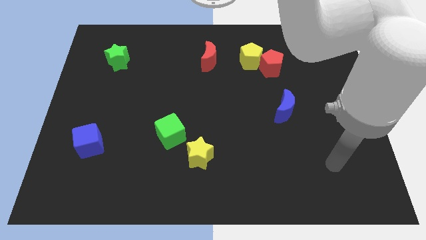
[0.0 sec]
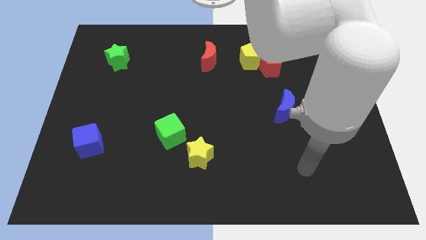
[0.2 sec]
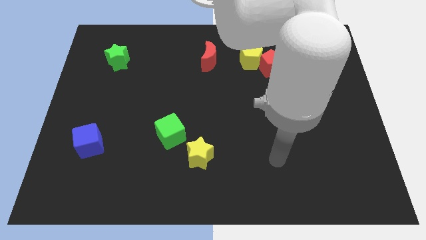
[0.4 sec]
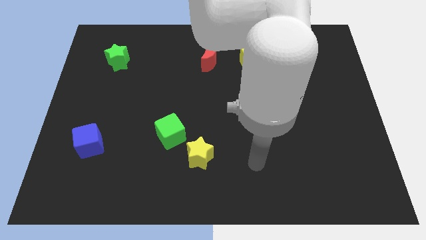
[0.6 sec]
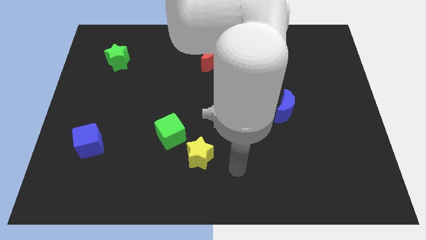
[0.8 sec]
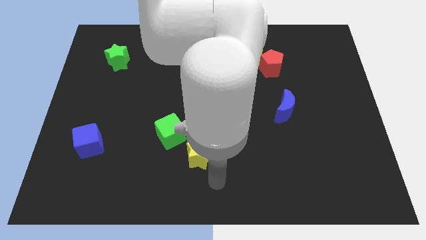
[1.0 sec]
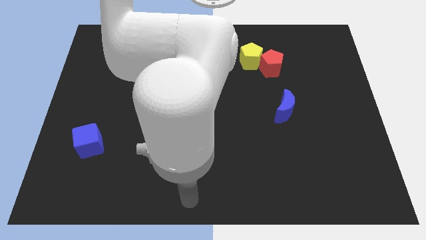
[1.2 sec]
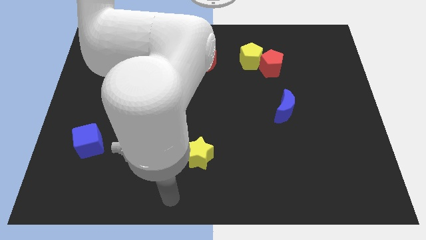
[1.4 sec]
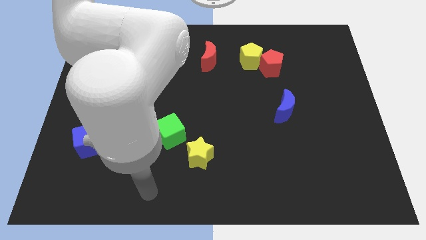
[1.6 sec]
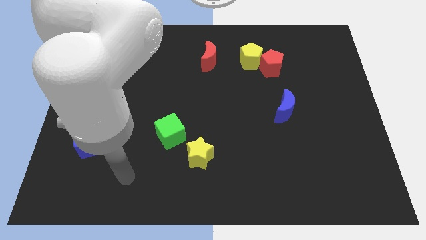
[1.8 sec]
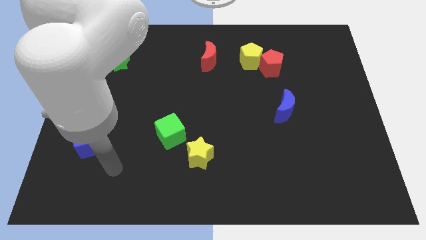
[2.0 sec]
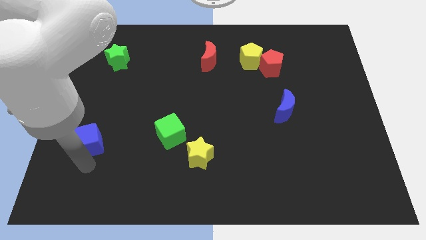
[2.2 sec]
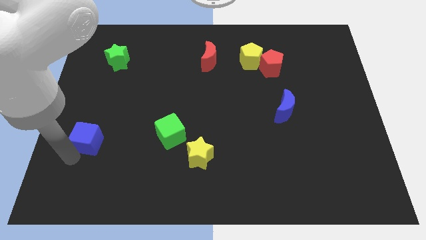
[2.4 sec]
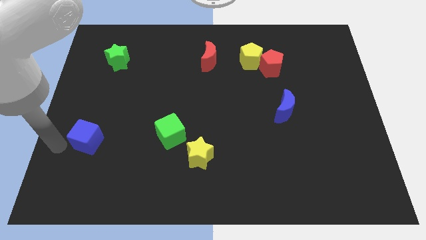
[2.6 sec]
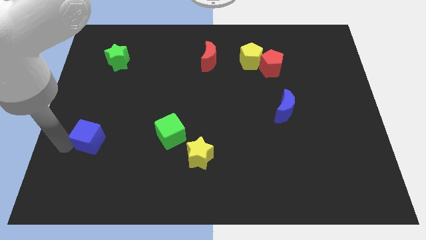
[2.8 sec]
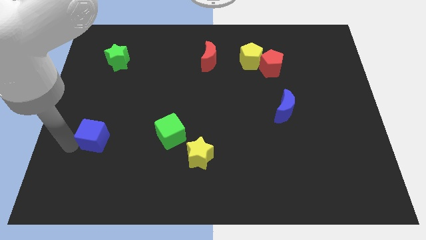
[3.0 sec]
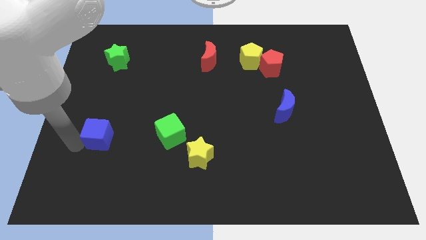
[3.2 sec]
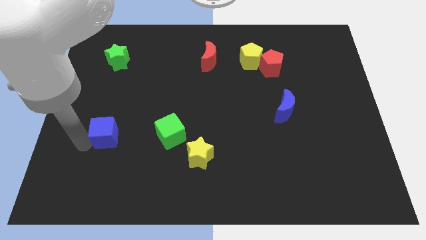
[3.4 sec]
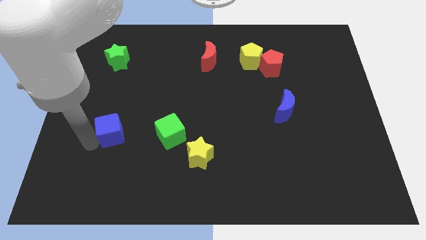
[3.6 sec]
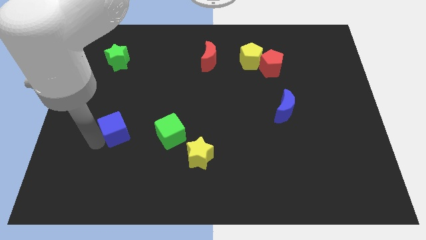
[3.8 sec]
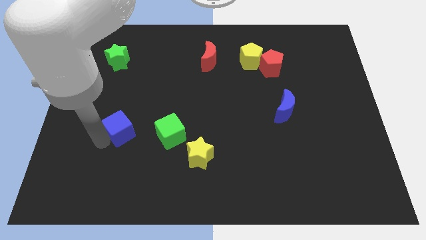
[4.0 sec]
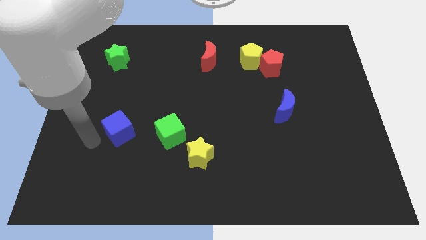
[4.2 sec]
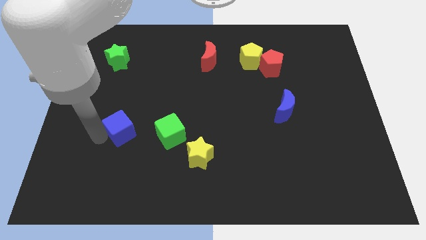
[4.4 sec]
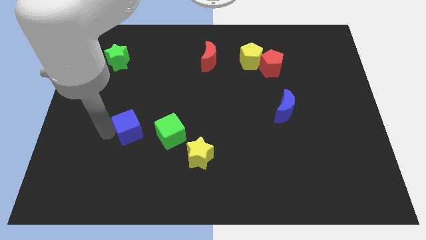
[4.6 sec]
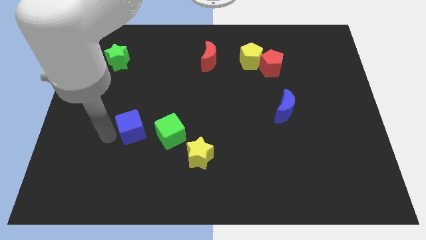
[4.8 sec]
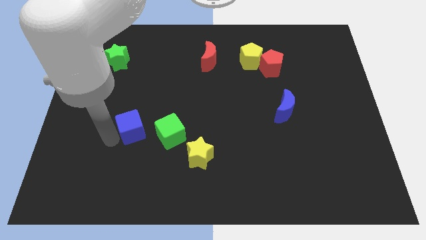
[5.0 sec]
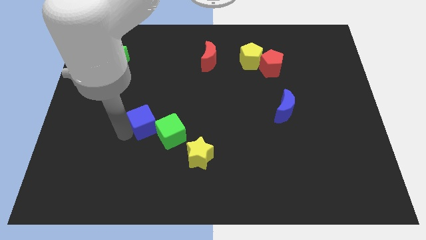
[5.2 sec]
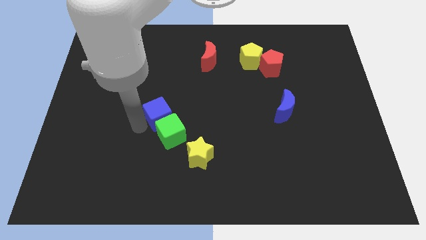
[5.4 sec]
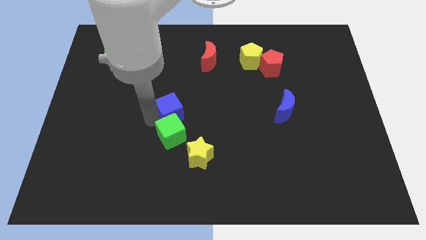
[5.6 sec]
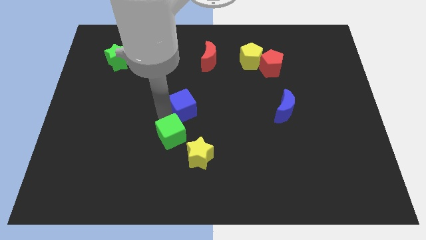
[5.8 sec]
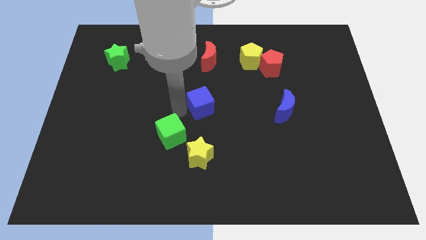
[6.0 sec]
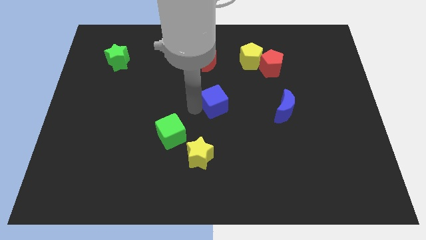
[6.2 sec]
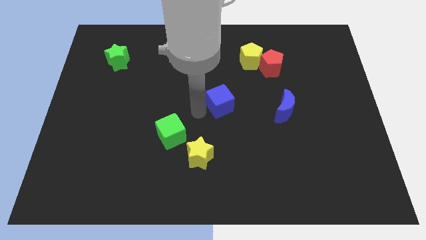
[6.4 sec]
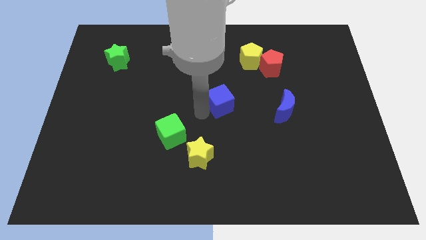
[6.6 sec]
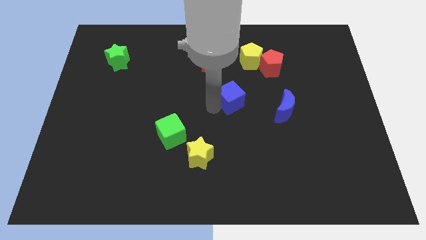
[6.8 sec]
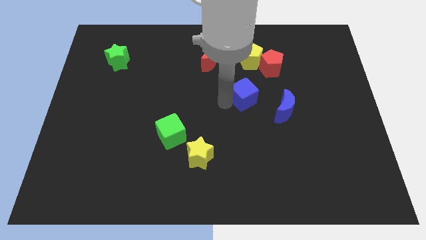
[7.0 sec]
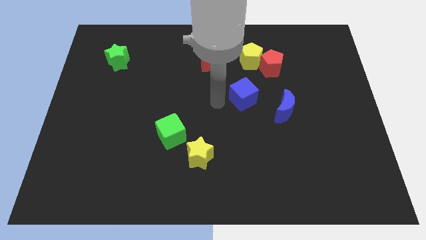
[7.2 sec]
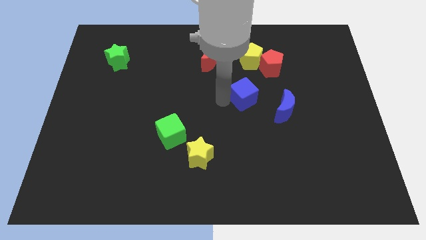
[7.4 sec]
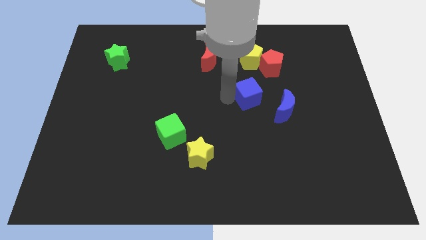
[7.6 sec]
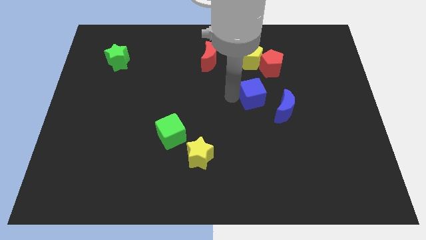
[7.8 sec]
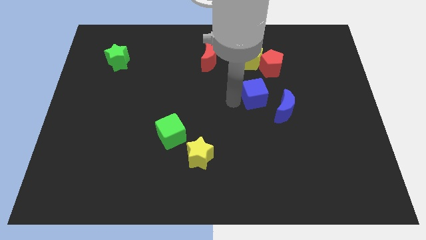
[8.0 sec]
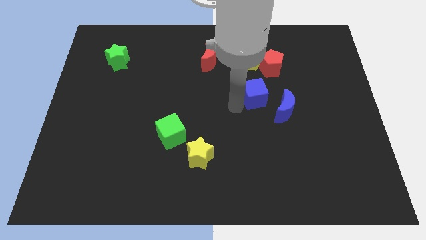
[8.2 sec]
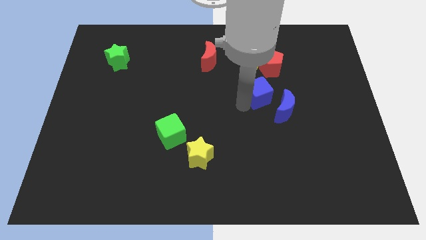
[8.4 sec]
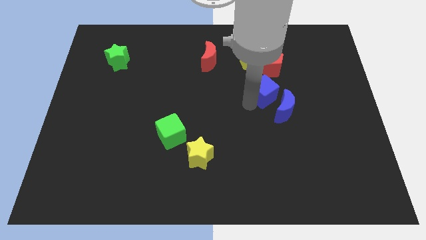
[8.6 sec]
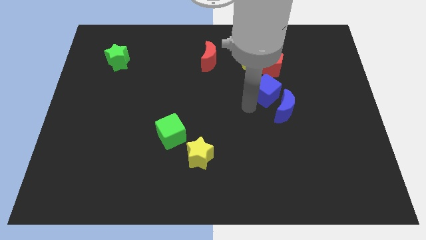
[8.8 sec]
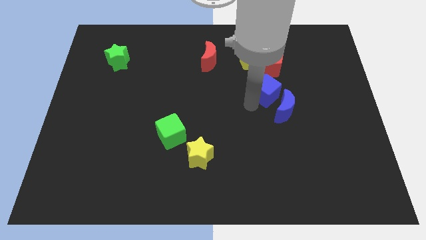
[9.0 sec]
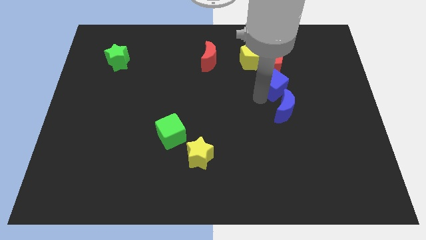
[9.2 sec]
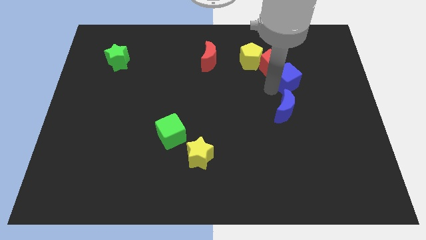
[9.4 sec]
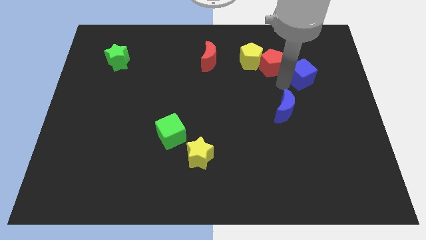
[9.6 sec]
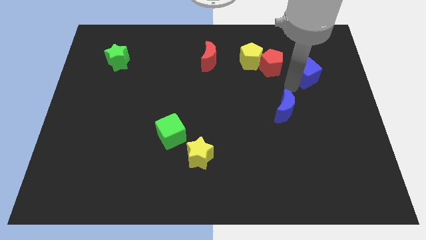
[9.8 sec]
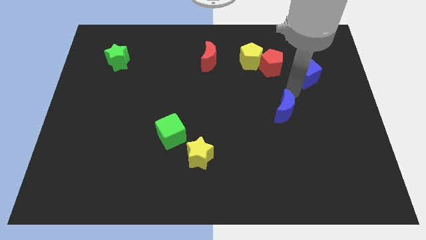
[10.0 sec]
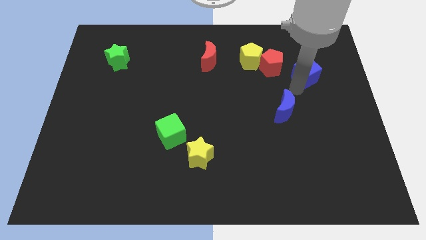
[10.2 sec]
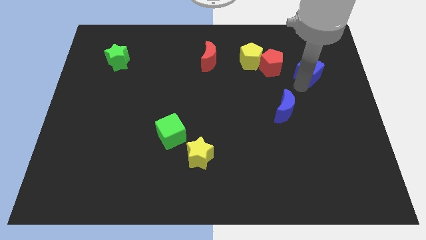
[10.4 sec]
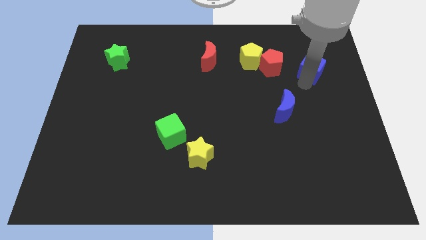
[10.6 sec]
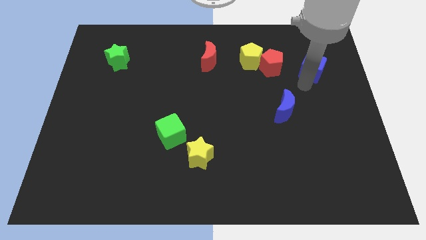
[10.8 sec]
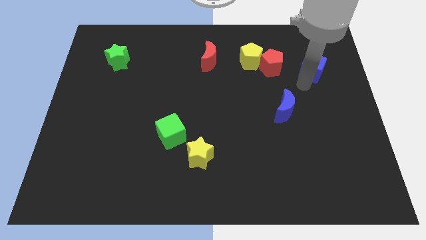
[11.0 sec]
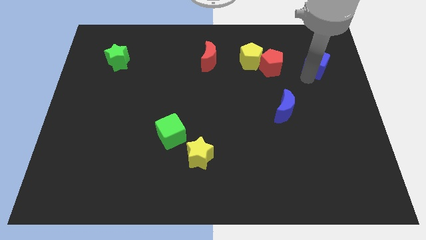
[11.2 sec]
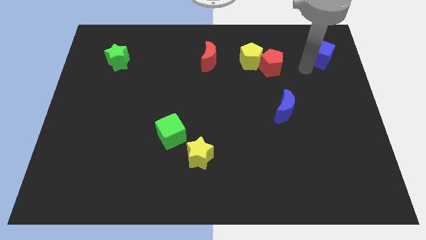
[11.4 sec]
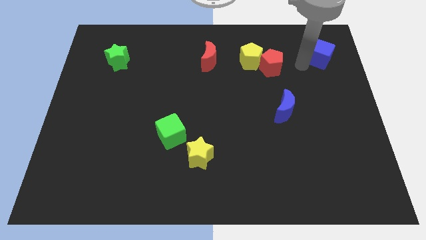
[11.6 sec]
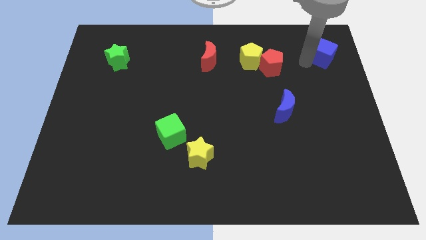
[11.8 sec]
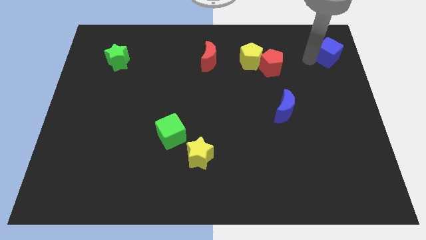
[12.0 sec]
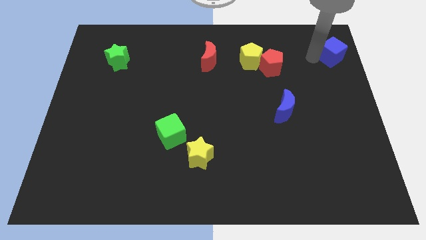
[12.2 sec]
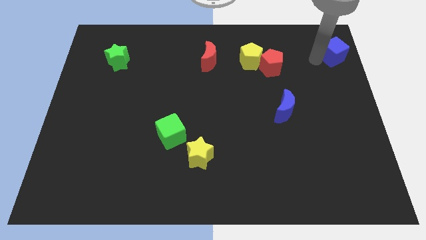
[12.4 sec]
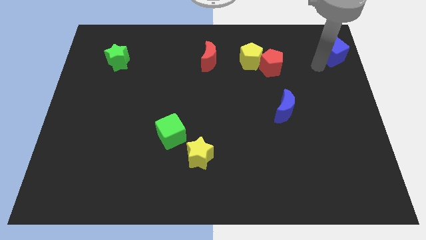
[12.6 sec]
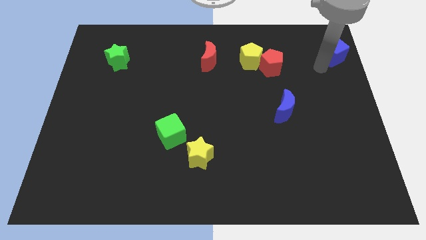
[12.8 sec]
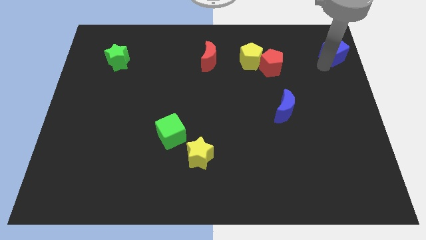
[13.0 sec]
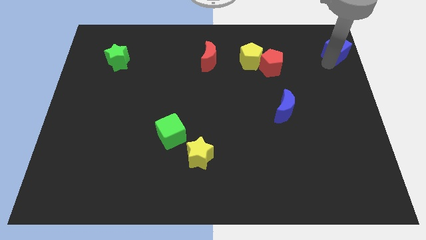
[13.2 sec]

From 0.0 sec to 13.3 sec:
put the blue cube to the top right corner
